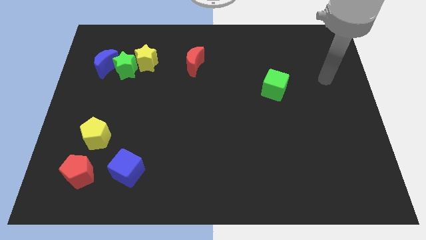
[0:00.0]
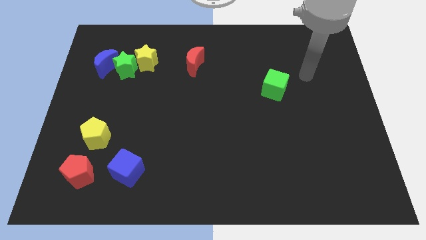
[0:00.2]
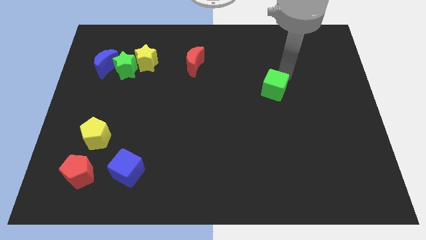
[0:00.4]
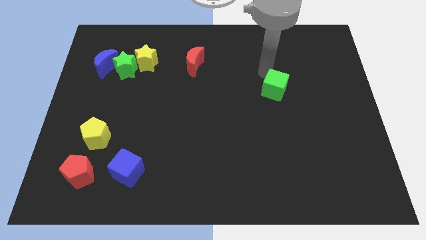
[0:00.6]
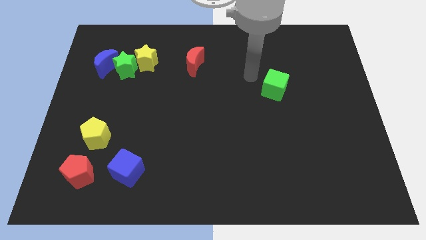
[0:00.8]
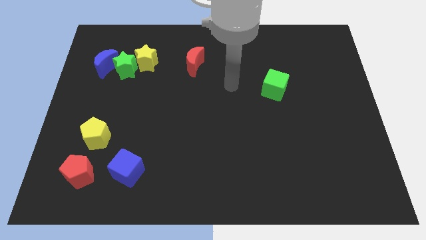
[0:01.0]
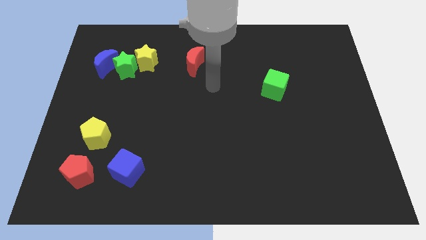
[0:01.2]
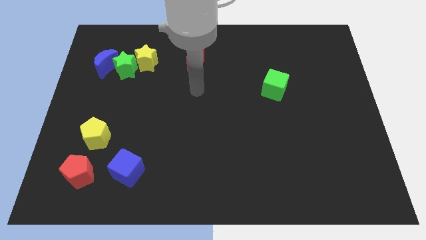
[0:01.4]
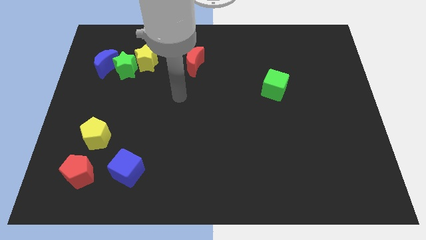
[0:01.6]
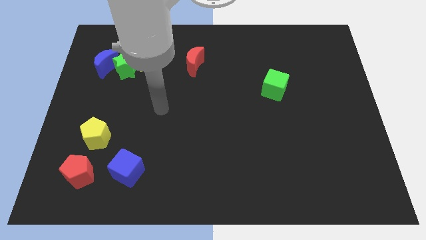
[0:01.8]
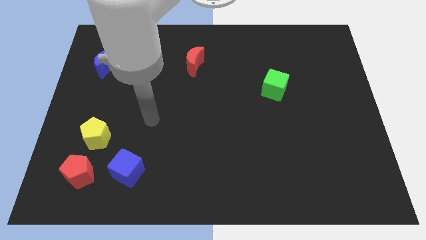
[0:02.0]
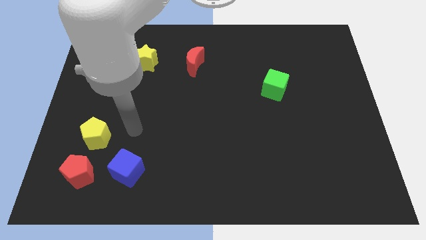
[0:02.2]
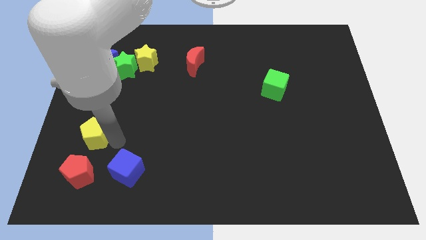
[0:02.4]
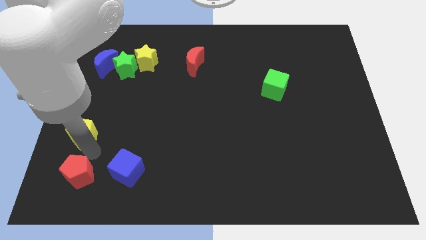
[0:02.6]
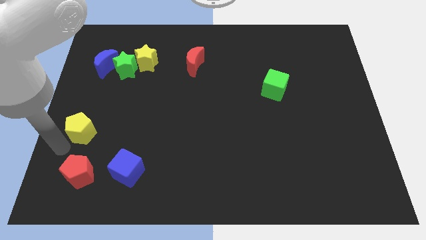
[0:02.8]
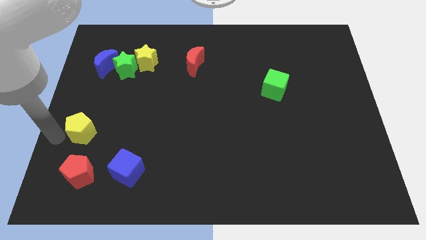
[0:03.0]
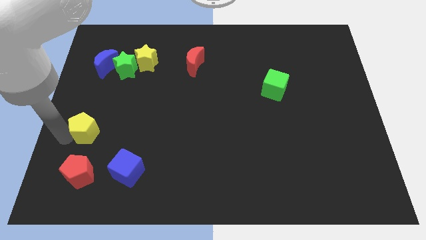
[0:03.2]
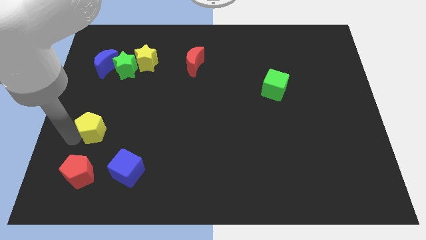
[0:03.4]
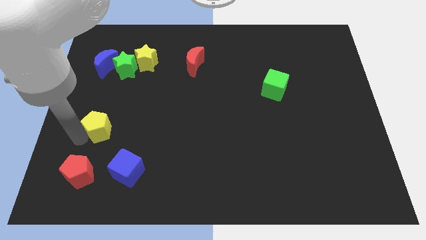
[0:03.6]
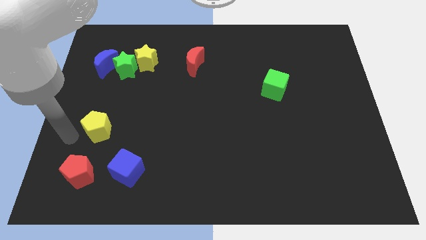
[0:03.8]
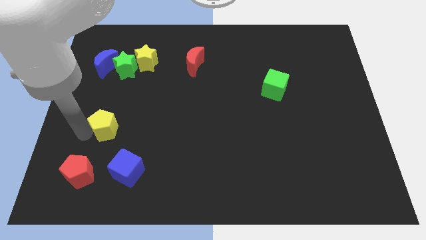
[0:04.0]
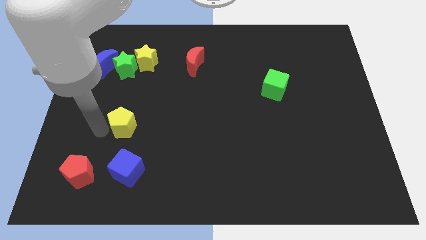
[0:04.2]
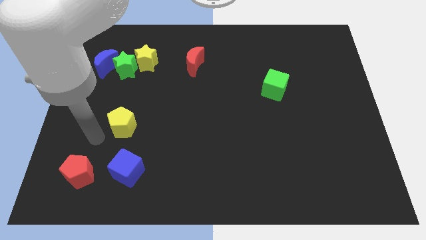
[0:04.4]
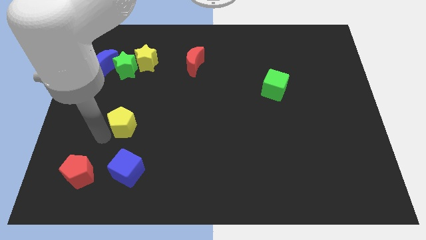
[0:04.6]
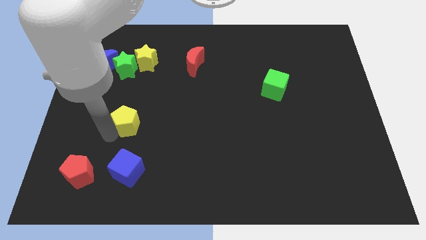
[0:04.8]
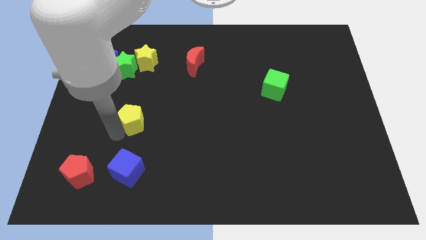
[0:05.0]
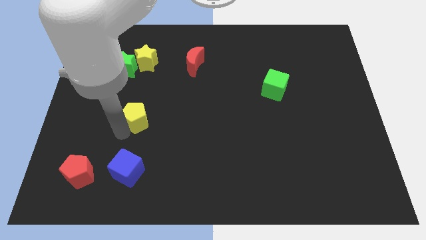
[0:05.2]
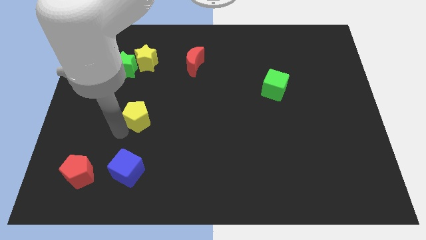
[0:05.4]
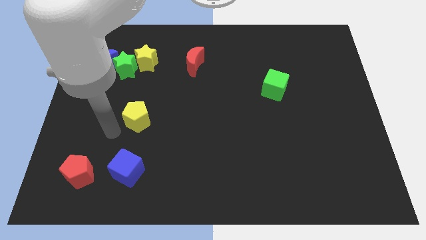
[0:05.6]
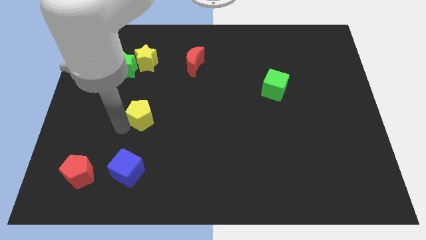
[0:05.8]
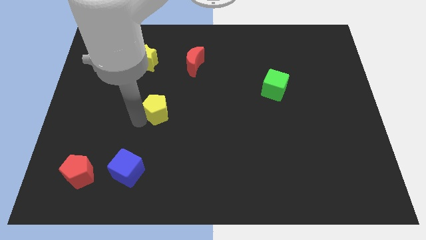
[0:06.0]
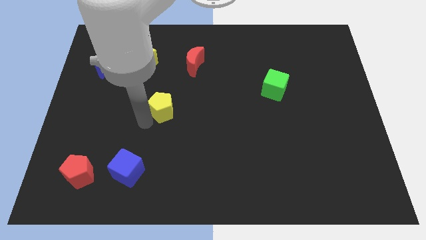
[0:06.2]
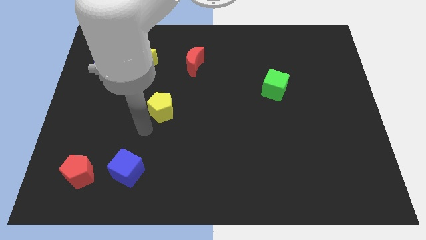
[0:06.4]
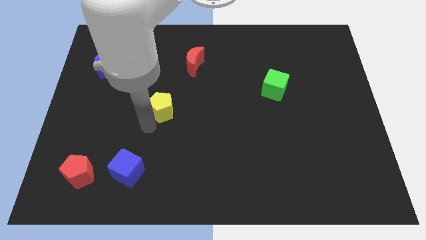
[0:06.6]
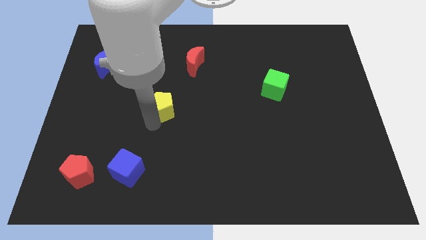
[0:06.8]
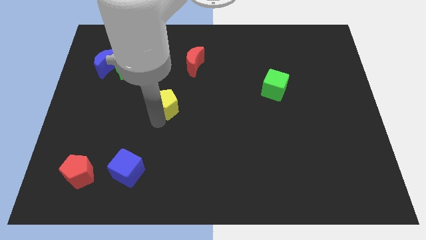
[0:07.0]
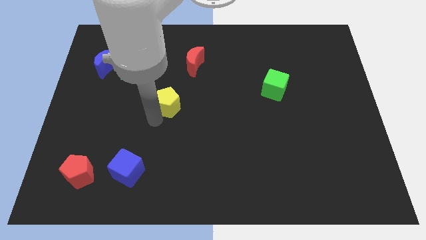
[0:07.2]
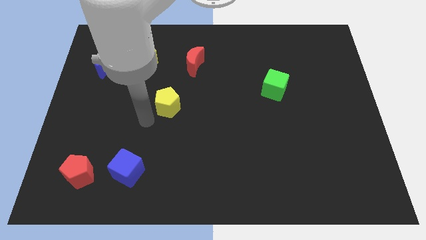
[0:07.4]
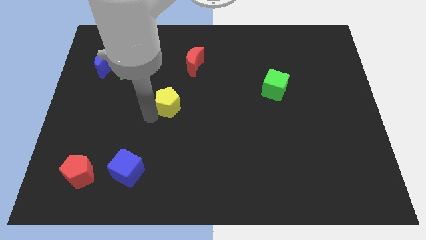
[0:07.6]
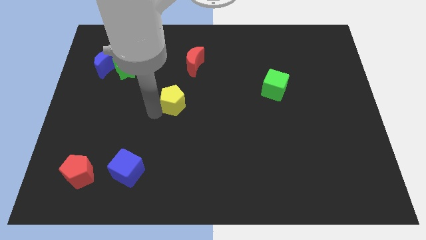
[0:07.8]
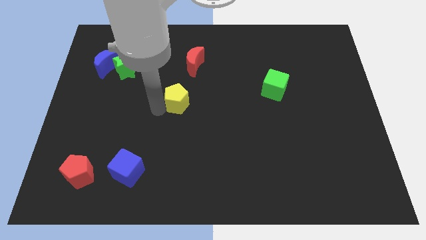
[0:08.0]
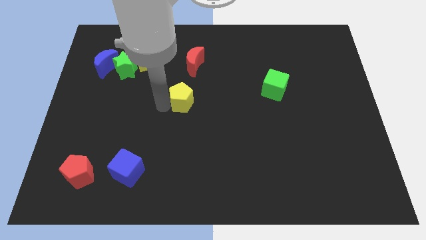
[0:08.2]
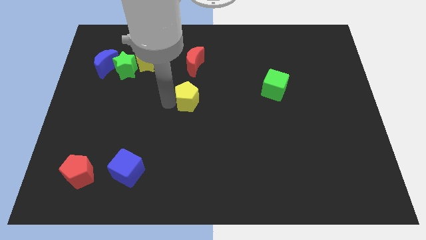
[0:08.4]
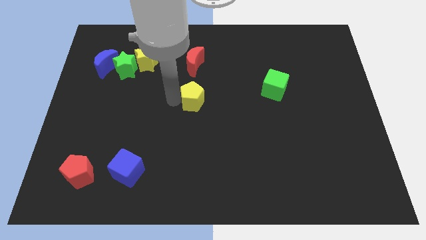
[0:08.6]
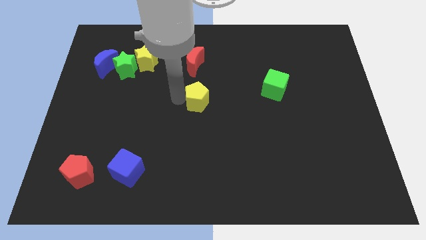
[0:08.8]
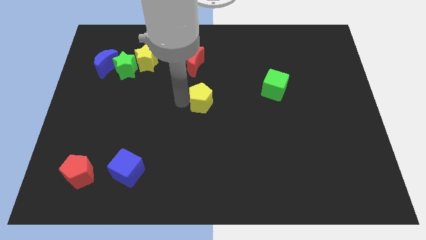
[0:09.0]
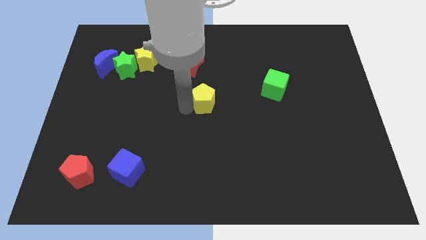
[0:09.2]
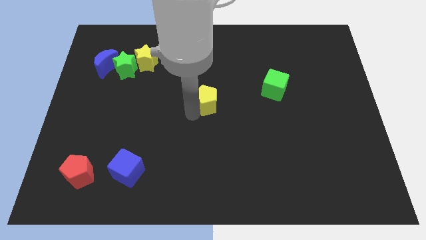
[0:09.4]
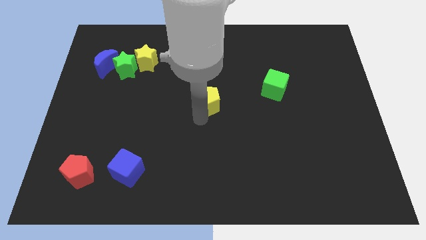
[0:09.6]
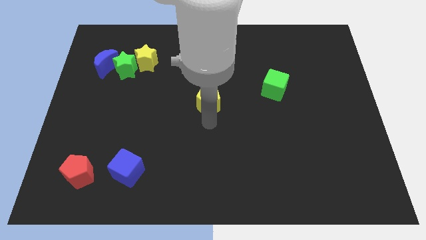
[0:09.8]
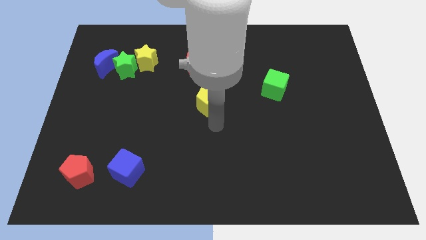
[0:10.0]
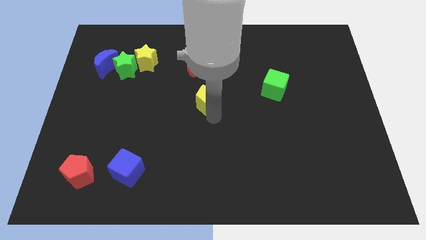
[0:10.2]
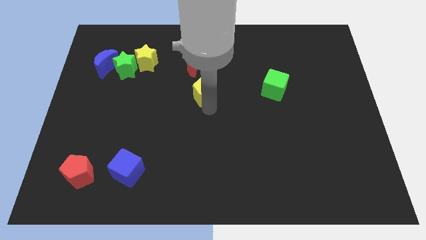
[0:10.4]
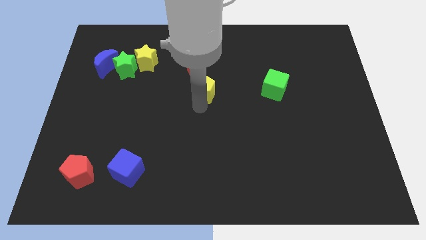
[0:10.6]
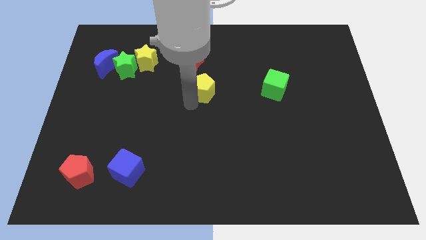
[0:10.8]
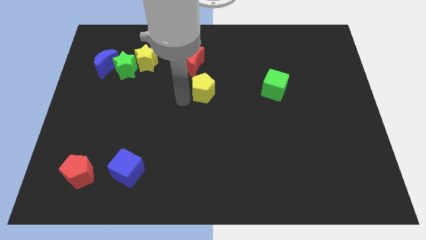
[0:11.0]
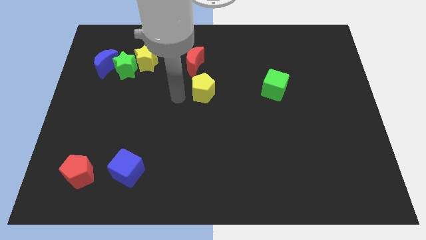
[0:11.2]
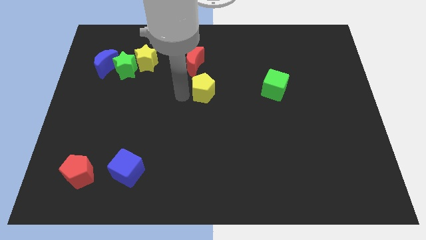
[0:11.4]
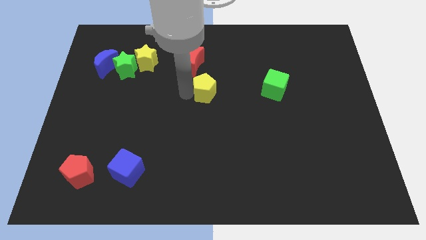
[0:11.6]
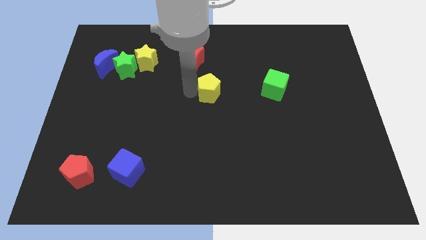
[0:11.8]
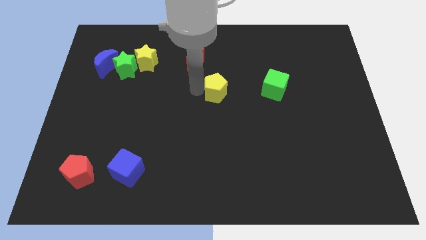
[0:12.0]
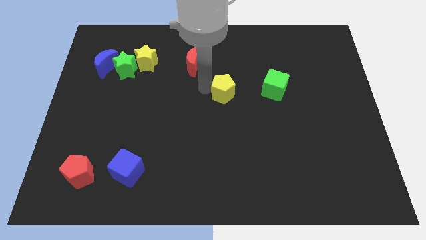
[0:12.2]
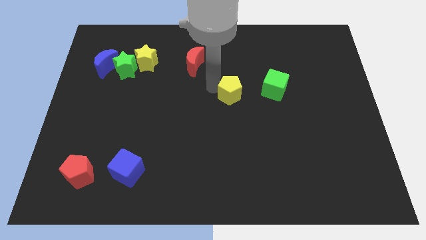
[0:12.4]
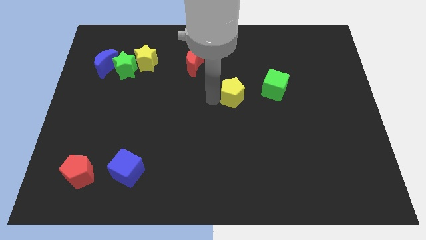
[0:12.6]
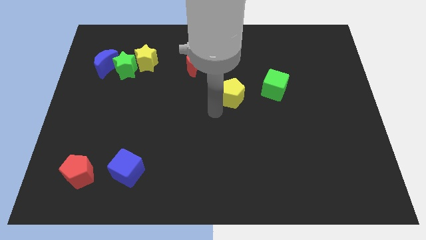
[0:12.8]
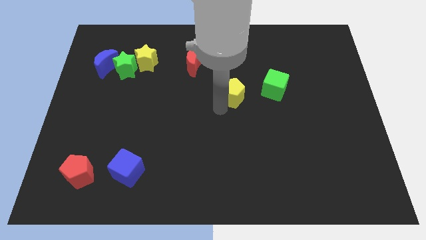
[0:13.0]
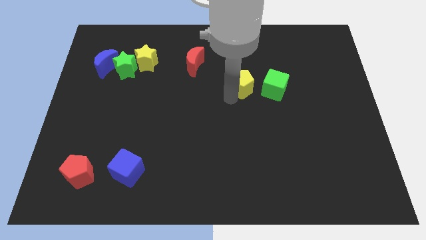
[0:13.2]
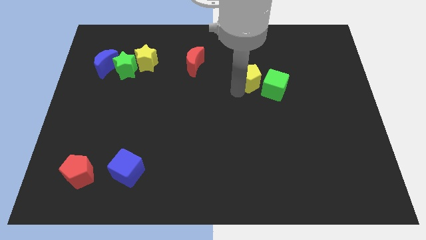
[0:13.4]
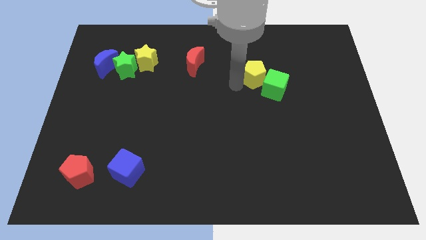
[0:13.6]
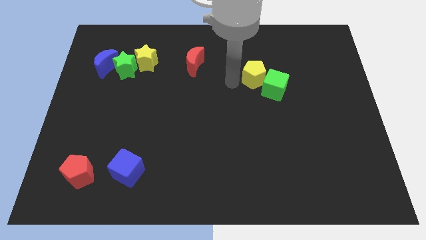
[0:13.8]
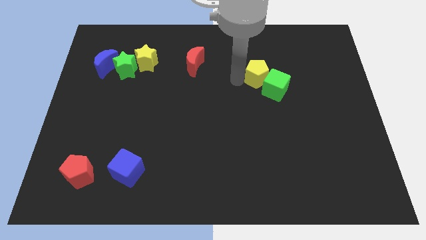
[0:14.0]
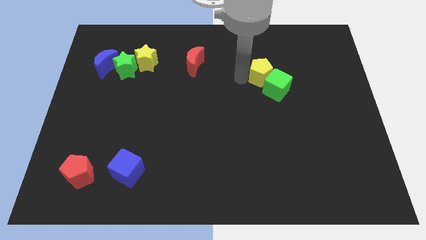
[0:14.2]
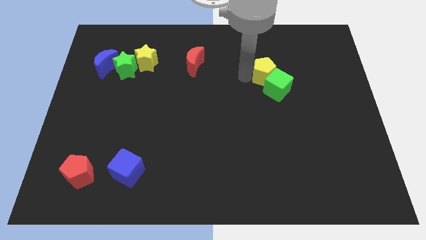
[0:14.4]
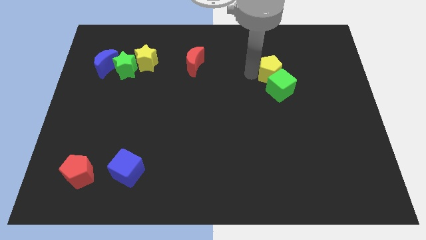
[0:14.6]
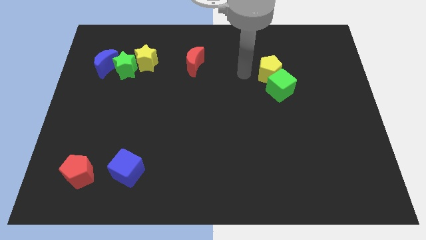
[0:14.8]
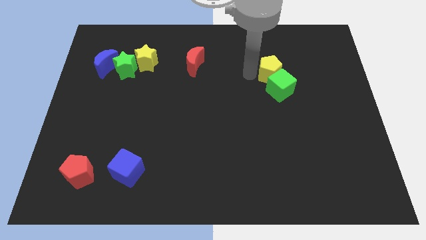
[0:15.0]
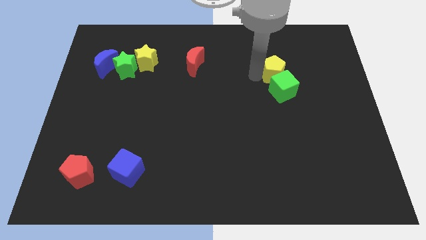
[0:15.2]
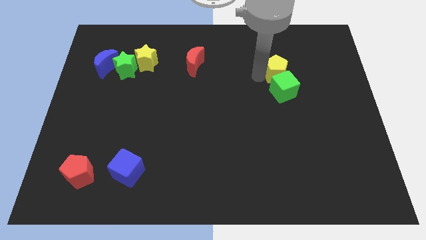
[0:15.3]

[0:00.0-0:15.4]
push the yellow pentagon diagonally up and to the right of the green cube
